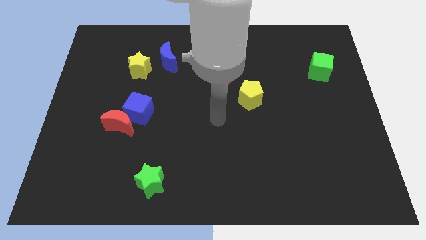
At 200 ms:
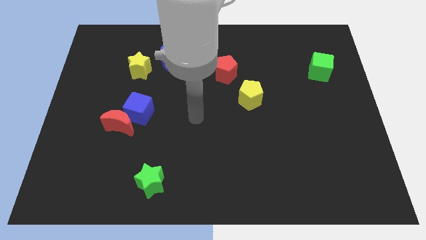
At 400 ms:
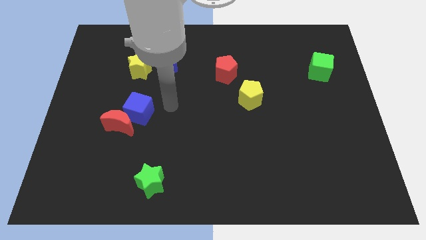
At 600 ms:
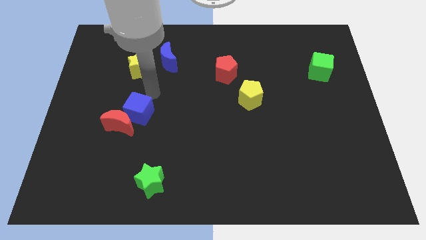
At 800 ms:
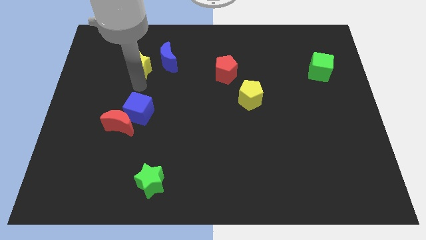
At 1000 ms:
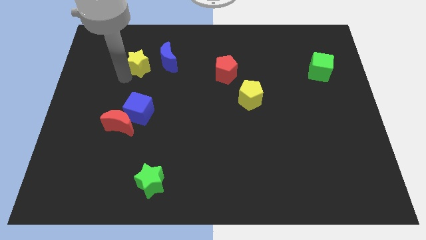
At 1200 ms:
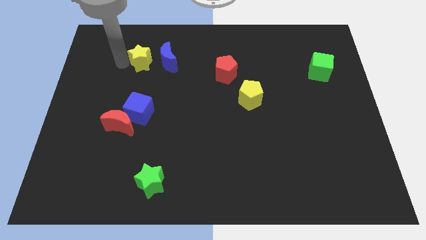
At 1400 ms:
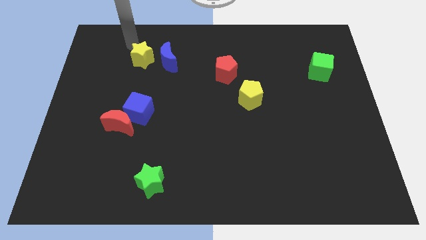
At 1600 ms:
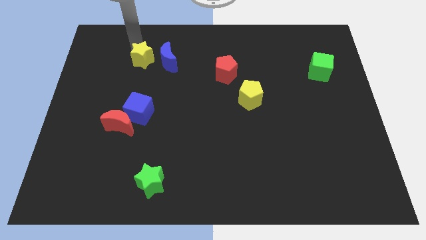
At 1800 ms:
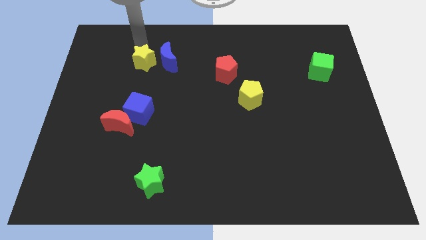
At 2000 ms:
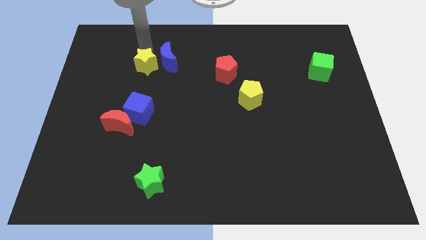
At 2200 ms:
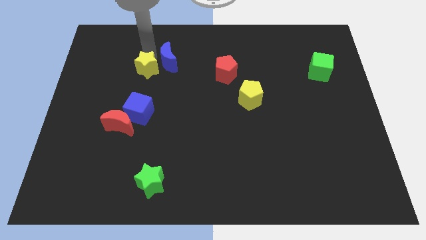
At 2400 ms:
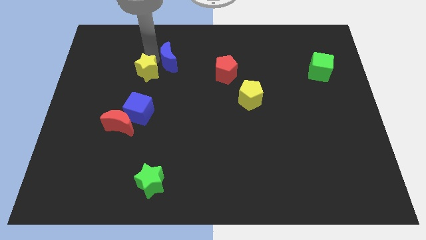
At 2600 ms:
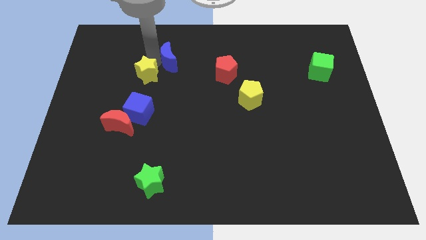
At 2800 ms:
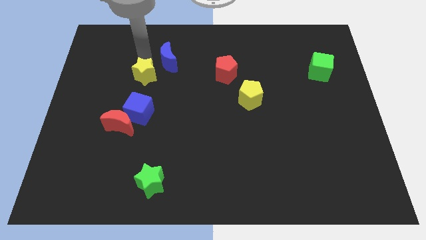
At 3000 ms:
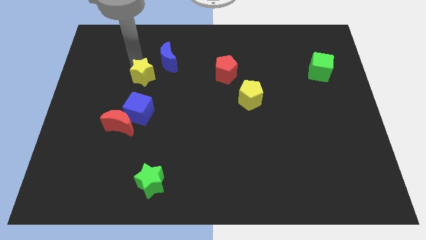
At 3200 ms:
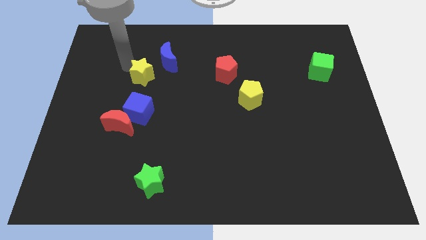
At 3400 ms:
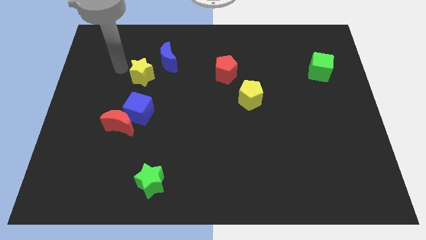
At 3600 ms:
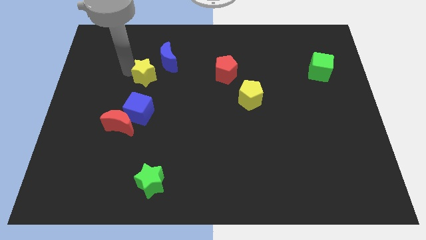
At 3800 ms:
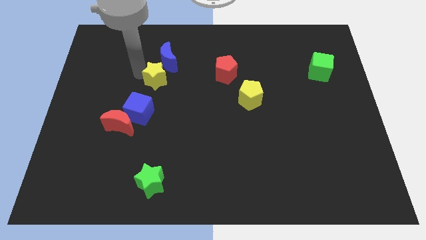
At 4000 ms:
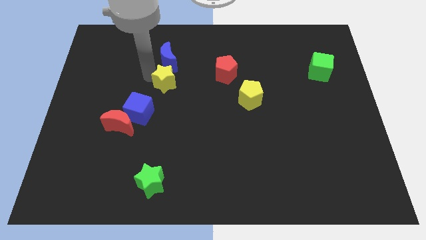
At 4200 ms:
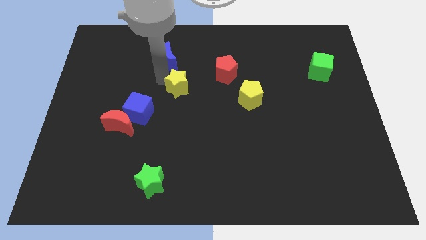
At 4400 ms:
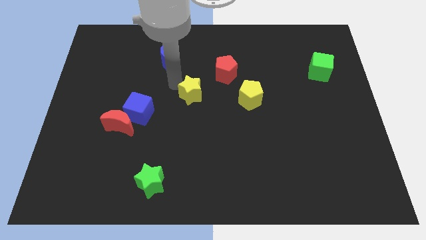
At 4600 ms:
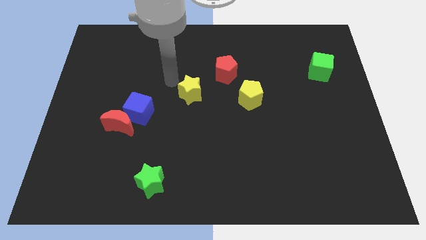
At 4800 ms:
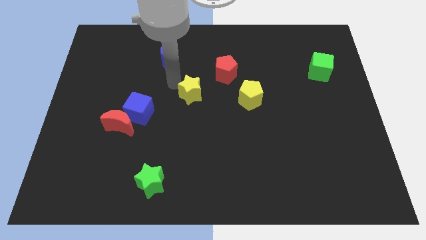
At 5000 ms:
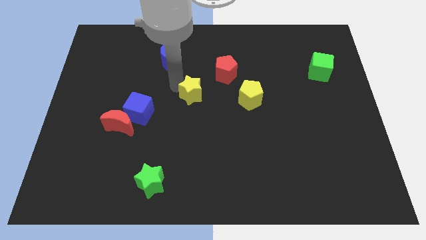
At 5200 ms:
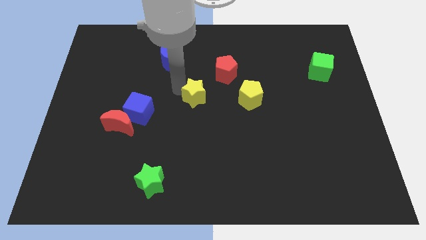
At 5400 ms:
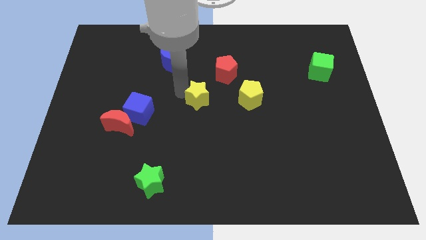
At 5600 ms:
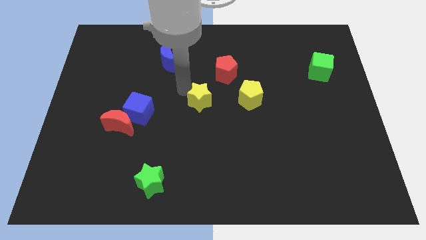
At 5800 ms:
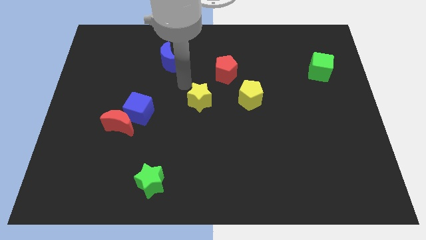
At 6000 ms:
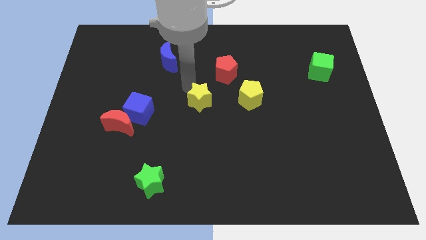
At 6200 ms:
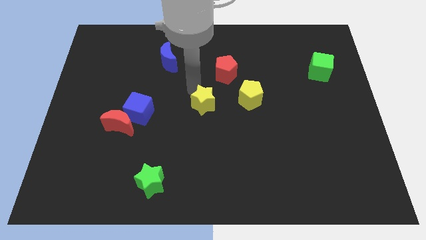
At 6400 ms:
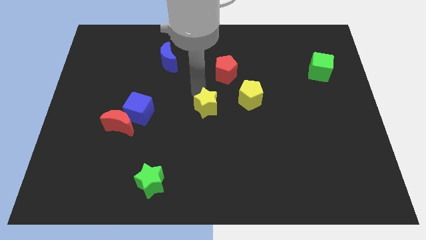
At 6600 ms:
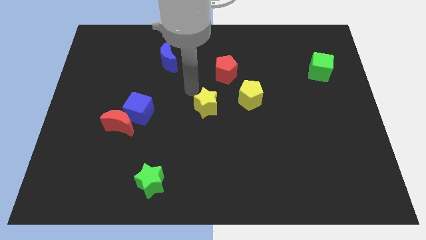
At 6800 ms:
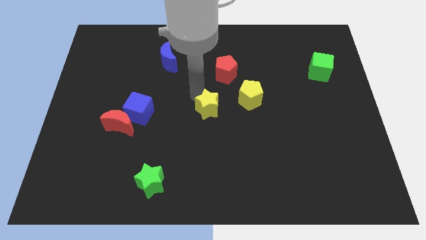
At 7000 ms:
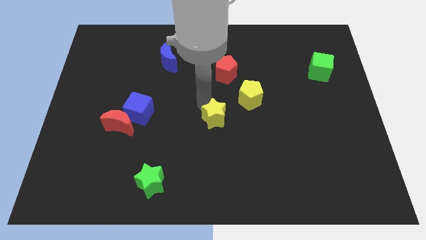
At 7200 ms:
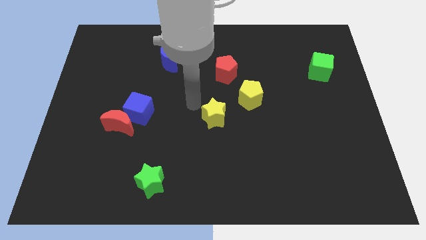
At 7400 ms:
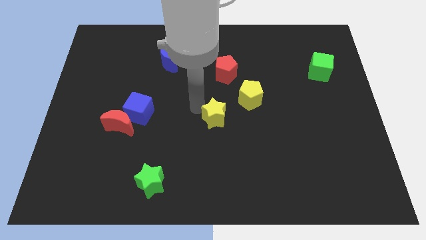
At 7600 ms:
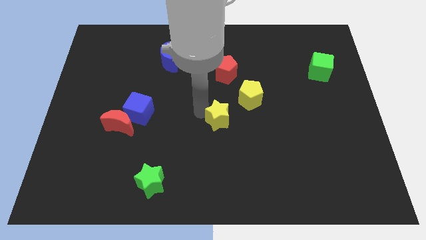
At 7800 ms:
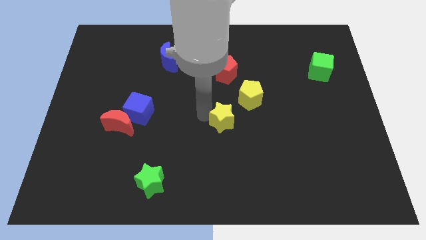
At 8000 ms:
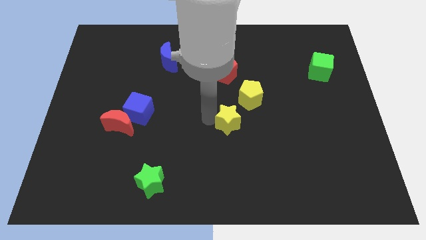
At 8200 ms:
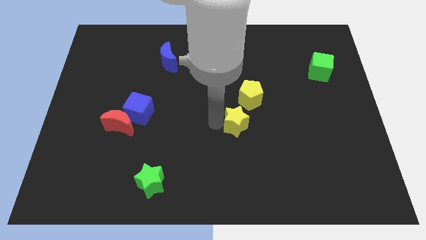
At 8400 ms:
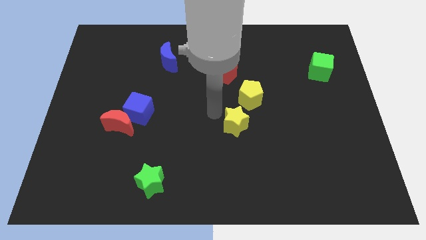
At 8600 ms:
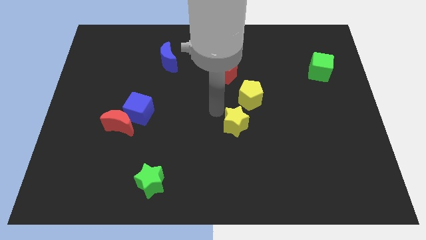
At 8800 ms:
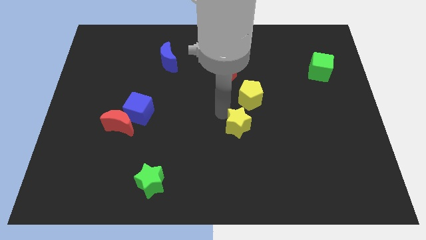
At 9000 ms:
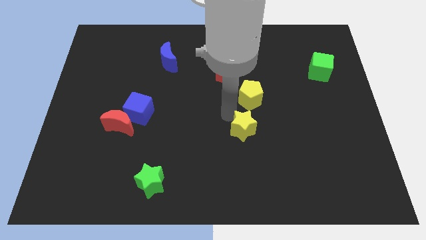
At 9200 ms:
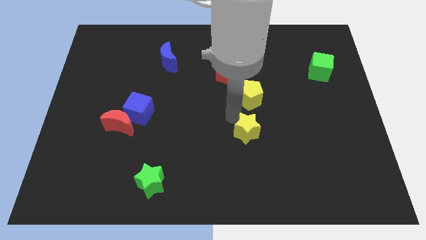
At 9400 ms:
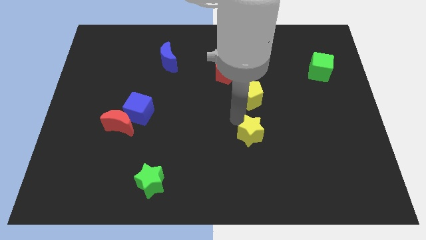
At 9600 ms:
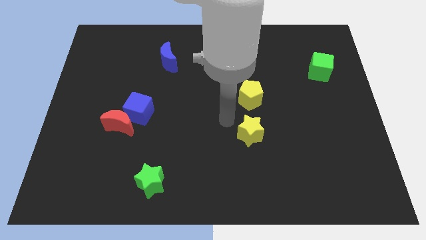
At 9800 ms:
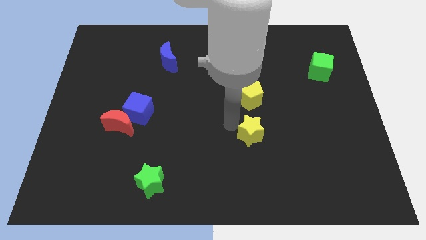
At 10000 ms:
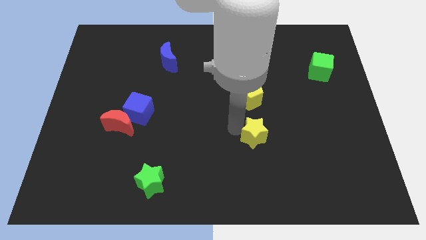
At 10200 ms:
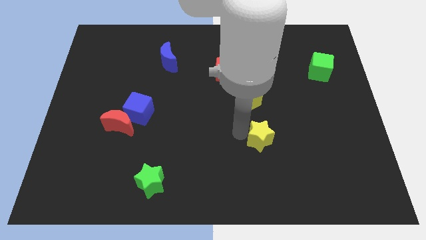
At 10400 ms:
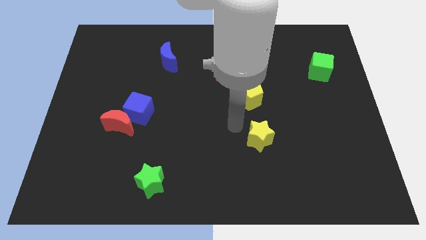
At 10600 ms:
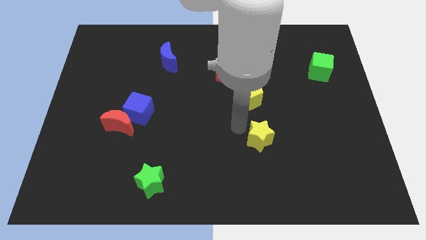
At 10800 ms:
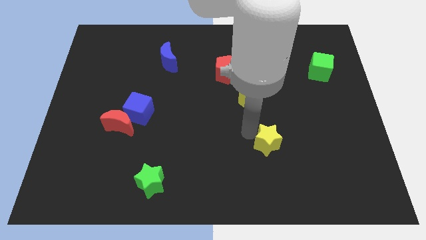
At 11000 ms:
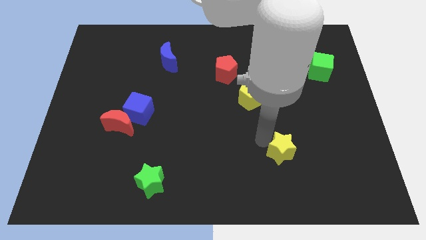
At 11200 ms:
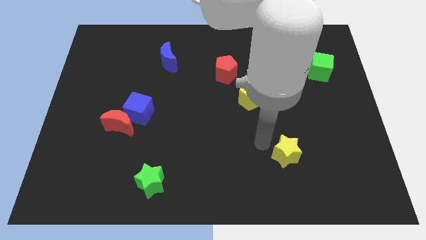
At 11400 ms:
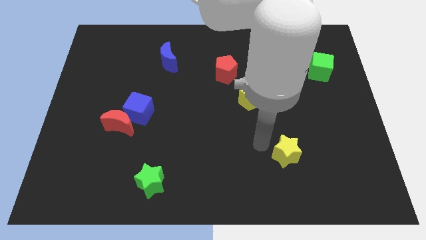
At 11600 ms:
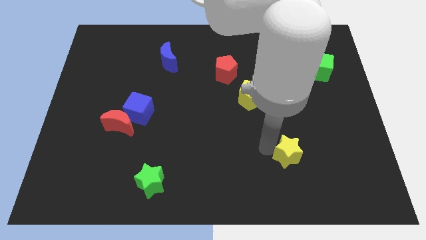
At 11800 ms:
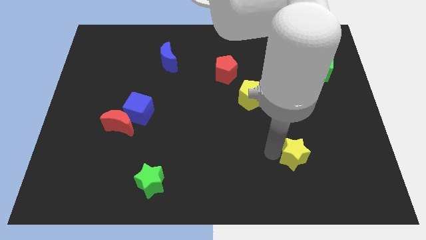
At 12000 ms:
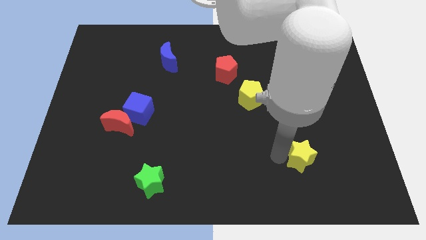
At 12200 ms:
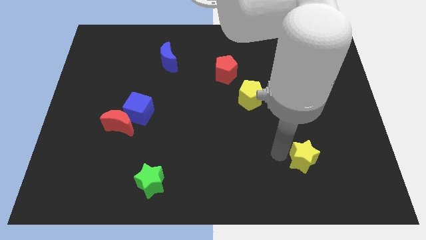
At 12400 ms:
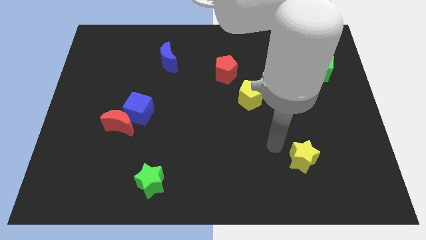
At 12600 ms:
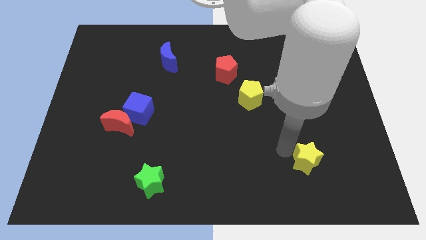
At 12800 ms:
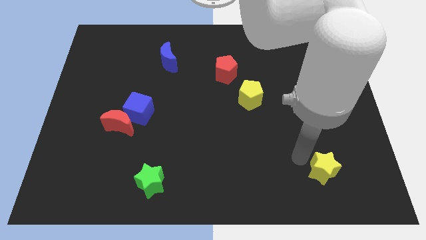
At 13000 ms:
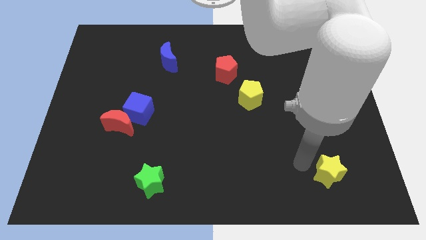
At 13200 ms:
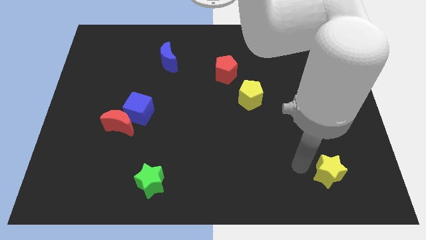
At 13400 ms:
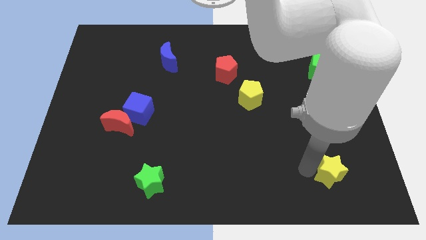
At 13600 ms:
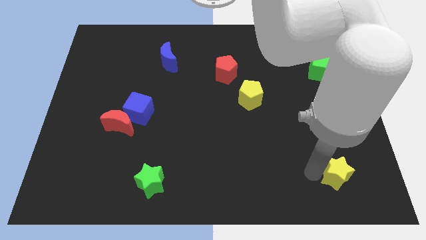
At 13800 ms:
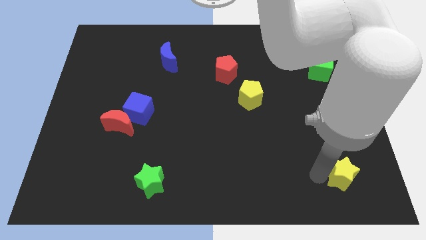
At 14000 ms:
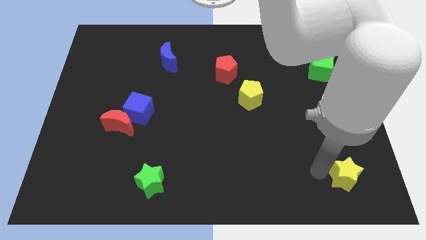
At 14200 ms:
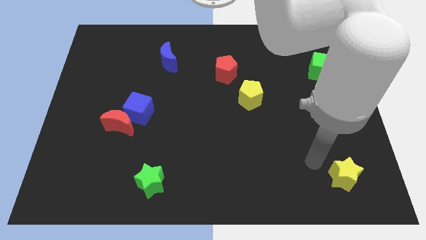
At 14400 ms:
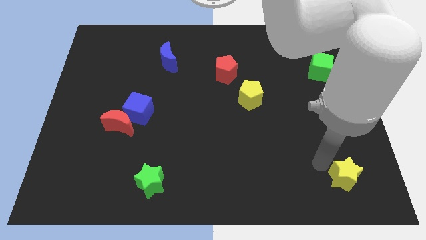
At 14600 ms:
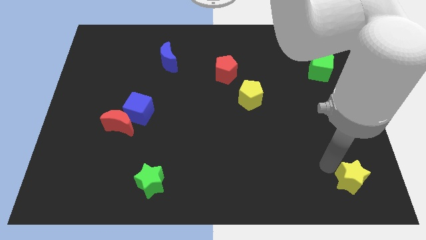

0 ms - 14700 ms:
slide the yellow star to the bottom right corner
